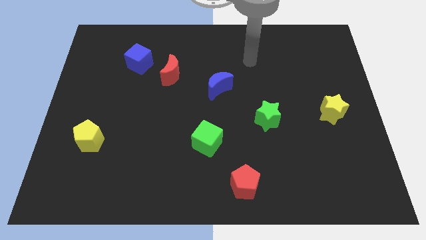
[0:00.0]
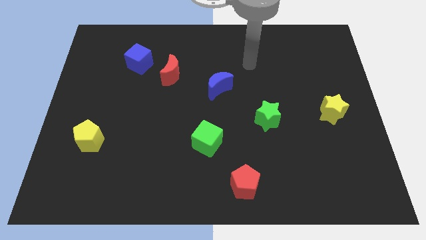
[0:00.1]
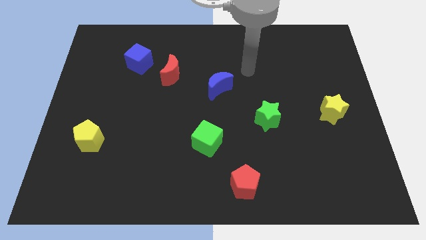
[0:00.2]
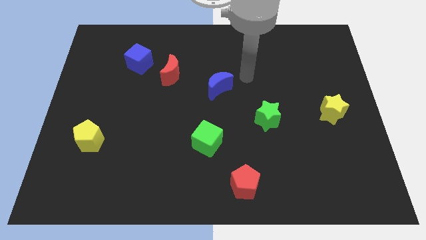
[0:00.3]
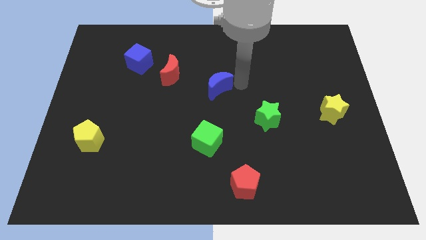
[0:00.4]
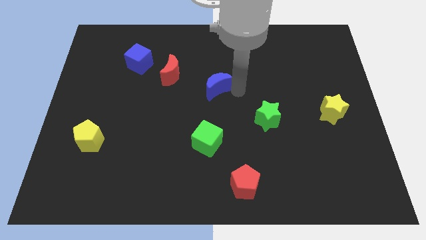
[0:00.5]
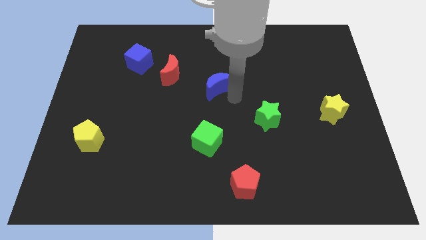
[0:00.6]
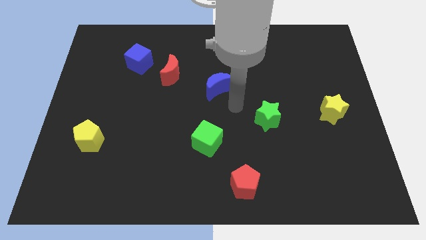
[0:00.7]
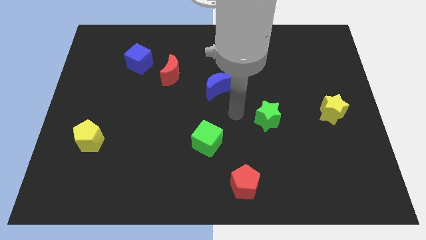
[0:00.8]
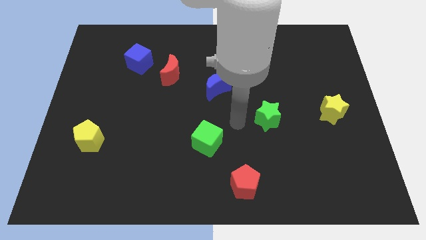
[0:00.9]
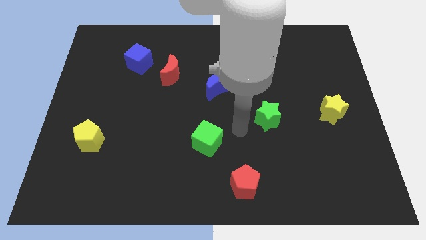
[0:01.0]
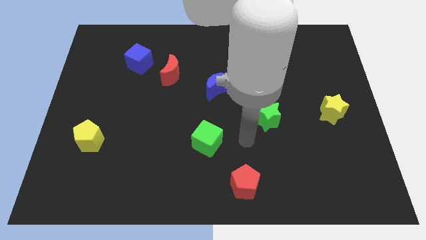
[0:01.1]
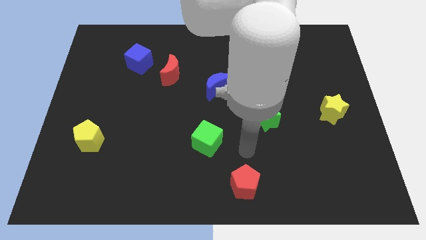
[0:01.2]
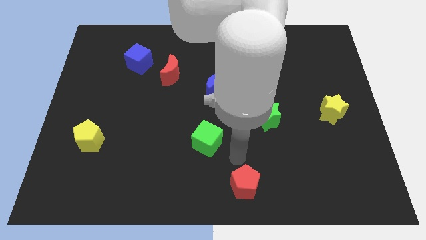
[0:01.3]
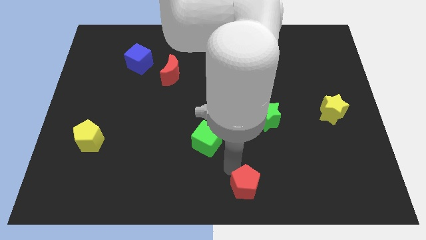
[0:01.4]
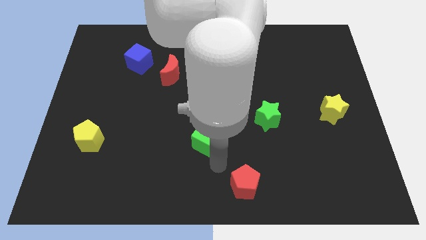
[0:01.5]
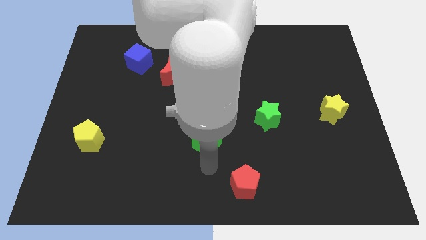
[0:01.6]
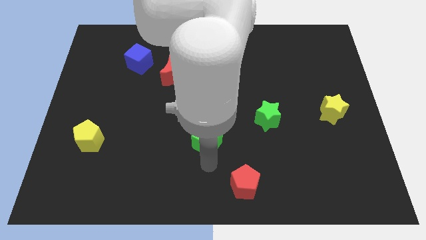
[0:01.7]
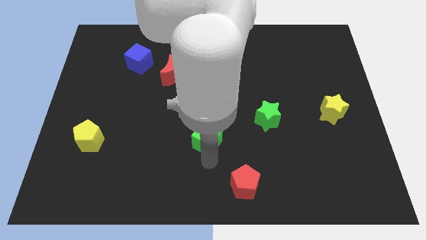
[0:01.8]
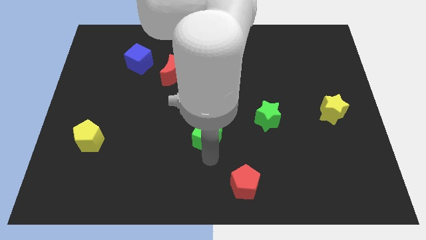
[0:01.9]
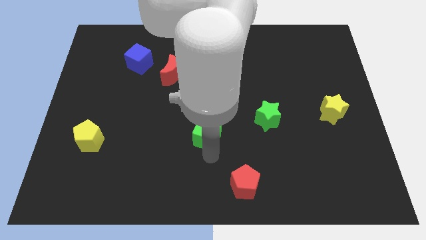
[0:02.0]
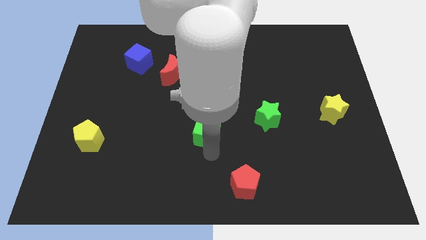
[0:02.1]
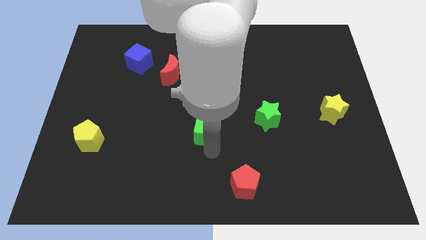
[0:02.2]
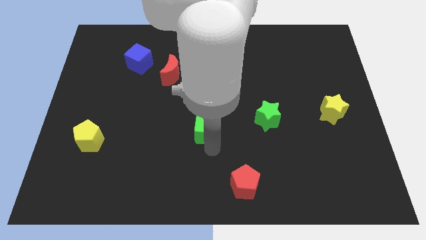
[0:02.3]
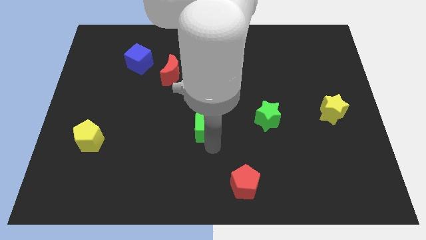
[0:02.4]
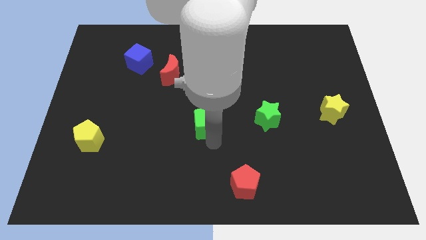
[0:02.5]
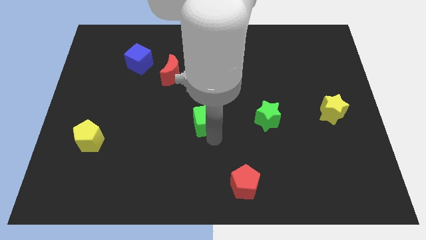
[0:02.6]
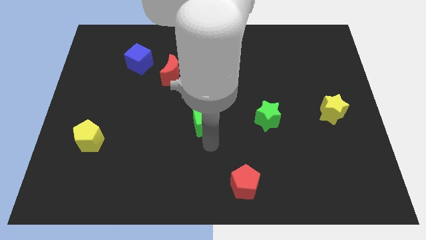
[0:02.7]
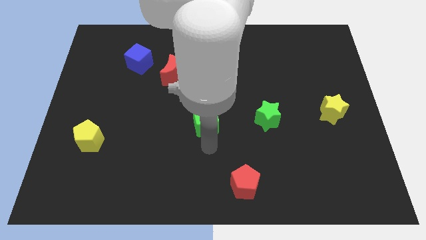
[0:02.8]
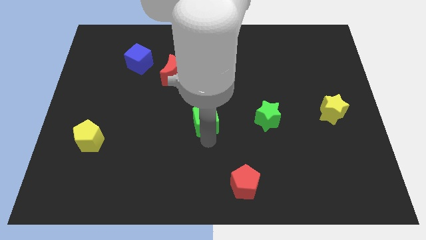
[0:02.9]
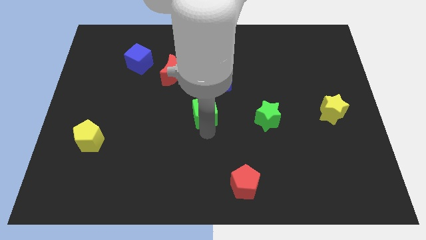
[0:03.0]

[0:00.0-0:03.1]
push the green cube up somewhat

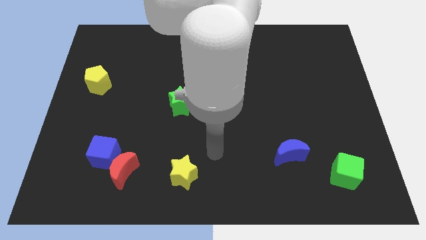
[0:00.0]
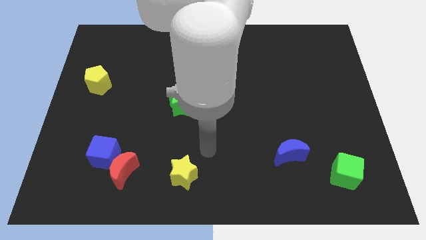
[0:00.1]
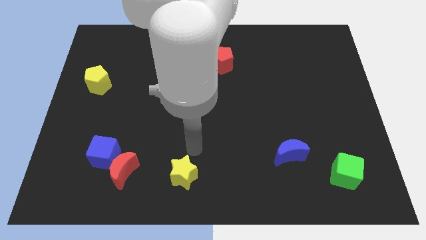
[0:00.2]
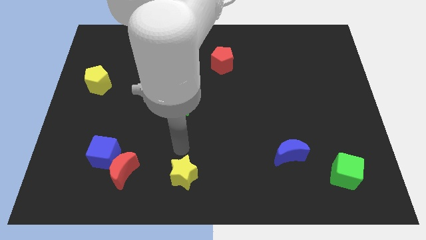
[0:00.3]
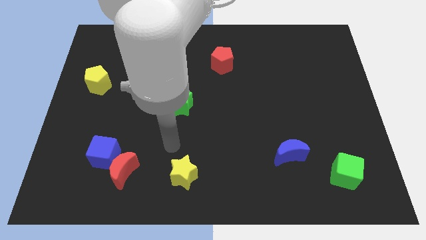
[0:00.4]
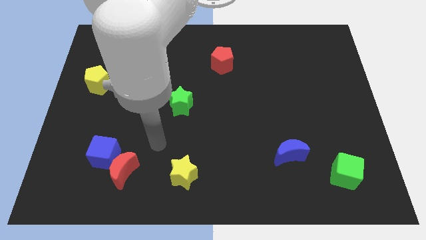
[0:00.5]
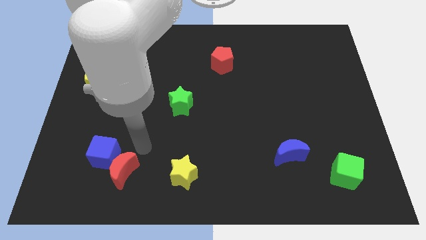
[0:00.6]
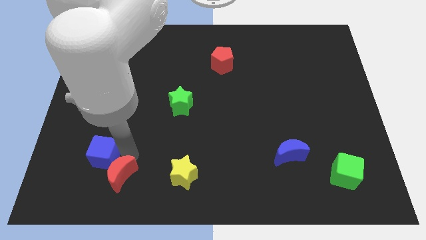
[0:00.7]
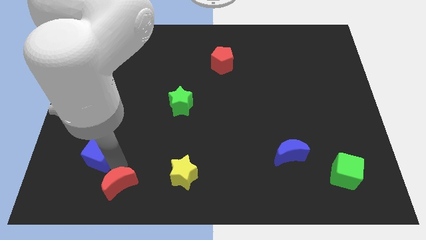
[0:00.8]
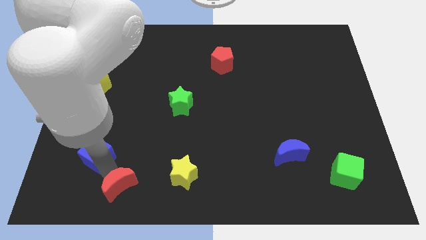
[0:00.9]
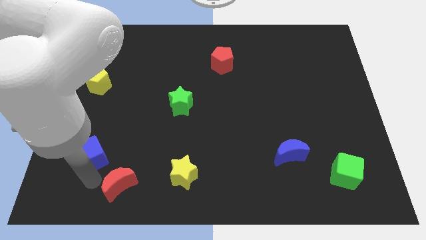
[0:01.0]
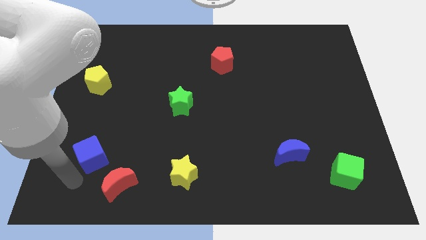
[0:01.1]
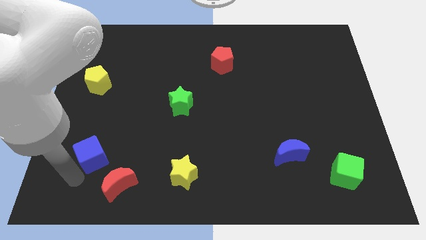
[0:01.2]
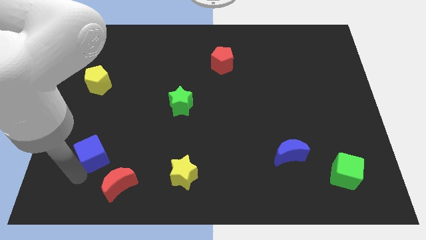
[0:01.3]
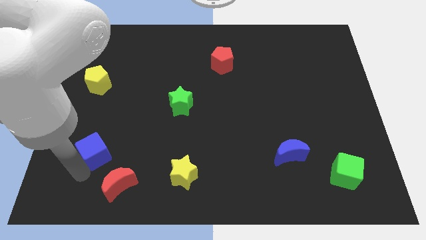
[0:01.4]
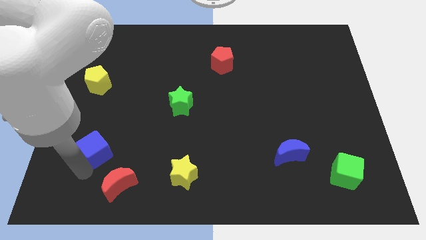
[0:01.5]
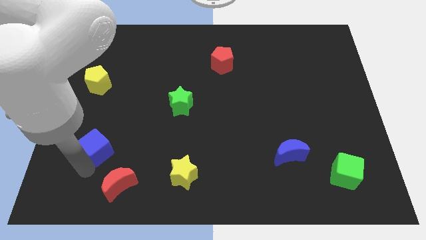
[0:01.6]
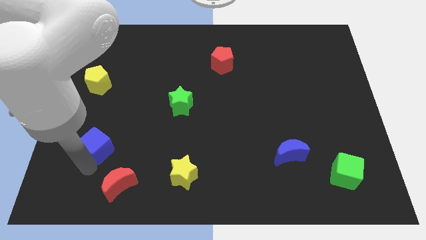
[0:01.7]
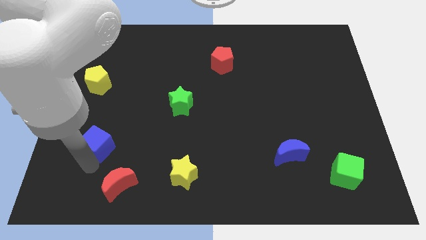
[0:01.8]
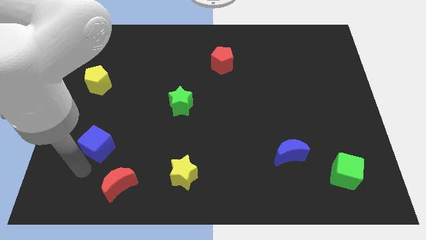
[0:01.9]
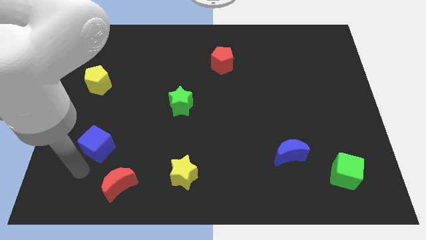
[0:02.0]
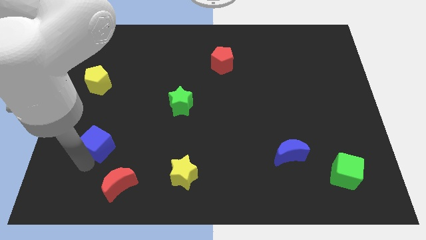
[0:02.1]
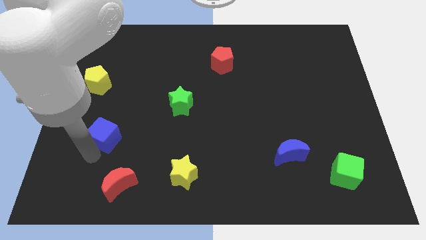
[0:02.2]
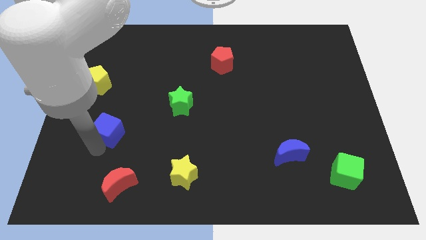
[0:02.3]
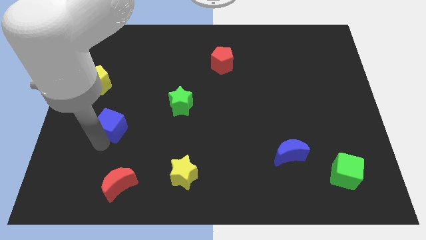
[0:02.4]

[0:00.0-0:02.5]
slide the blue cube upwards a little bit

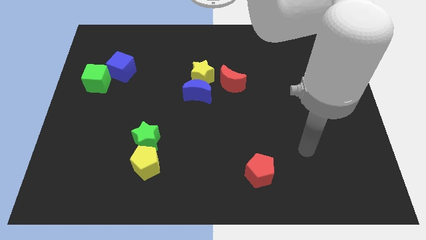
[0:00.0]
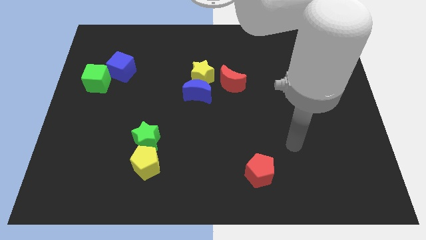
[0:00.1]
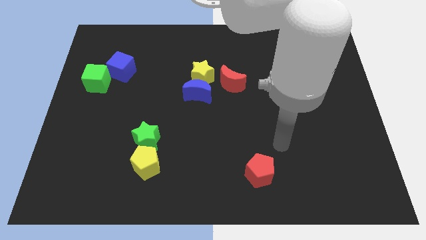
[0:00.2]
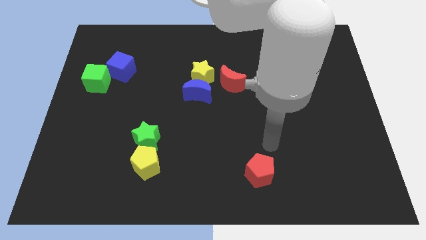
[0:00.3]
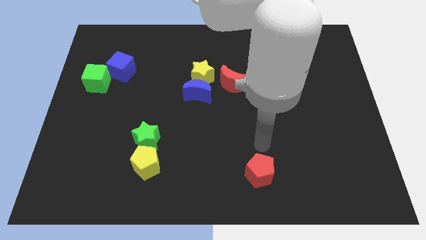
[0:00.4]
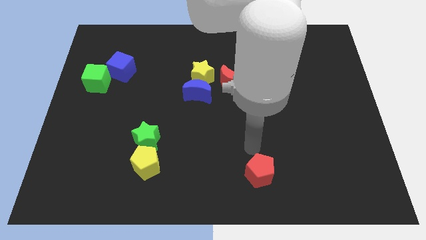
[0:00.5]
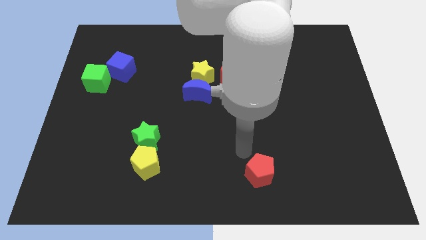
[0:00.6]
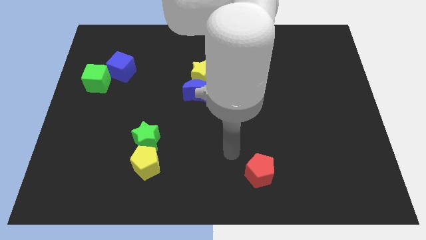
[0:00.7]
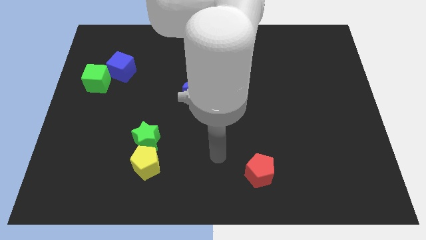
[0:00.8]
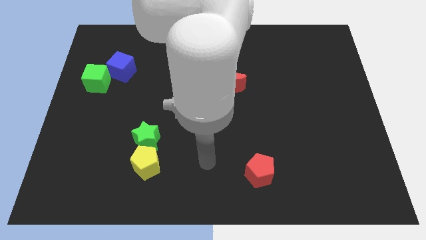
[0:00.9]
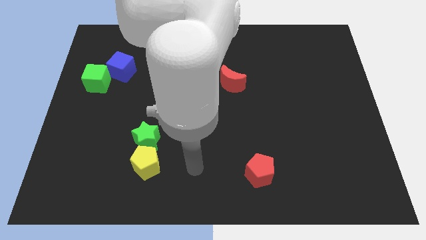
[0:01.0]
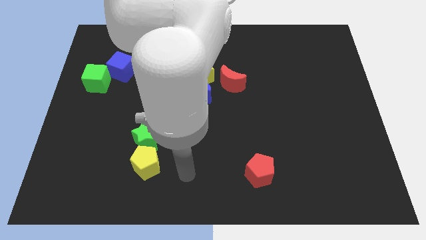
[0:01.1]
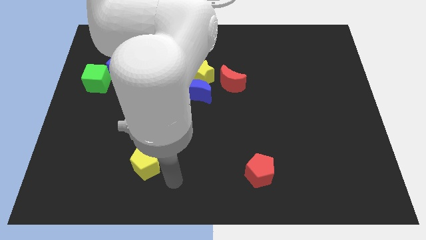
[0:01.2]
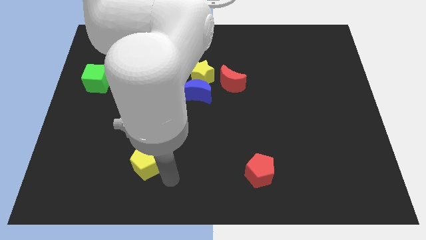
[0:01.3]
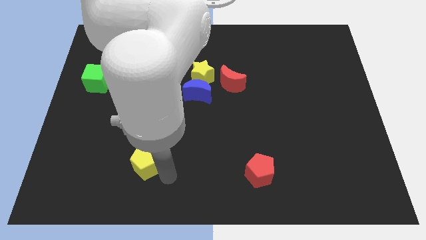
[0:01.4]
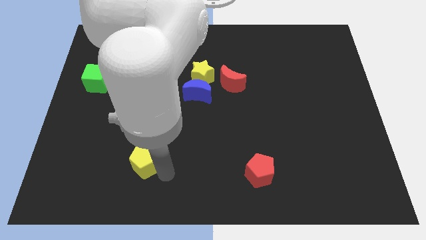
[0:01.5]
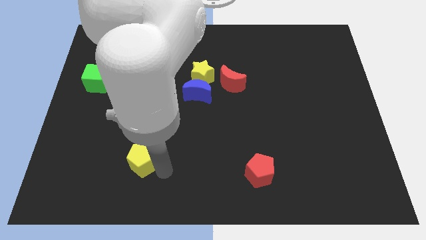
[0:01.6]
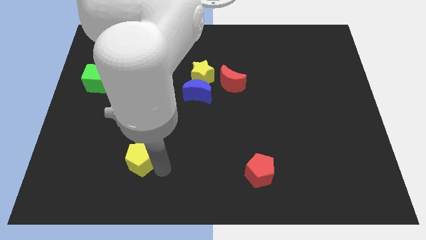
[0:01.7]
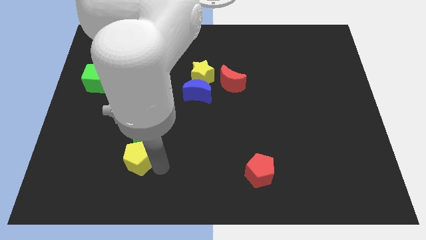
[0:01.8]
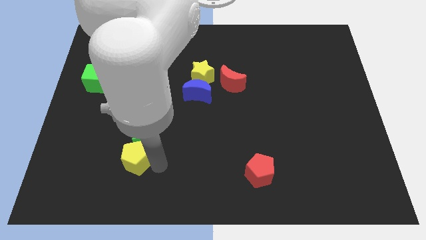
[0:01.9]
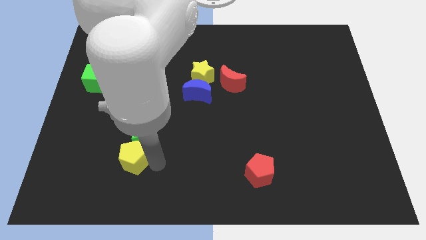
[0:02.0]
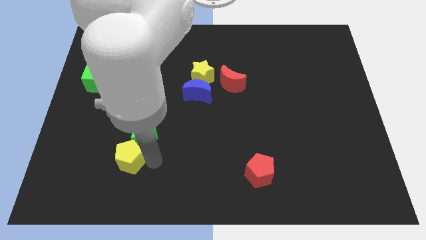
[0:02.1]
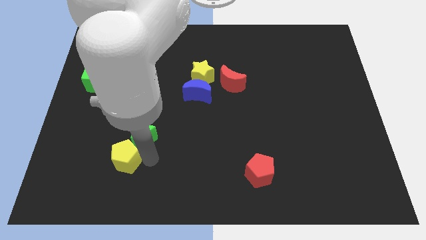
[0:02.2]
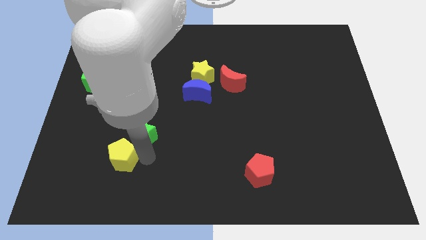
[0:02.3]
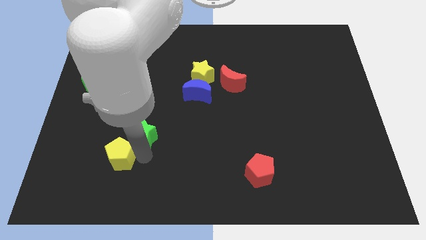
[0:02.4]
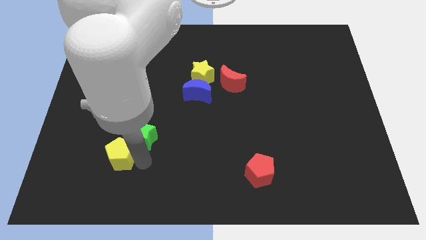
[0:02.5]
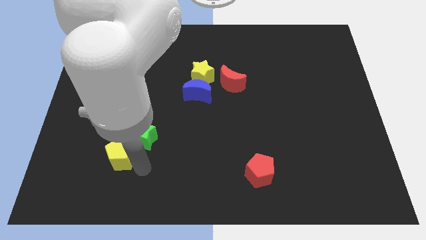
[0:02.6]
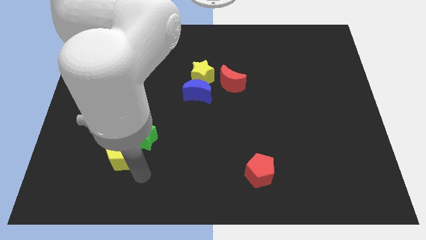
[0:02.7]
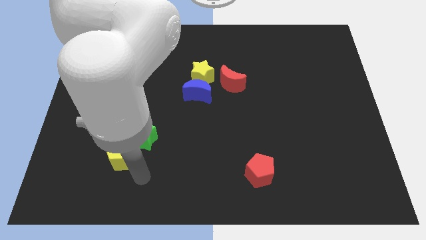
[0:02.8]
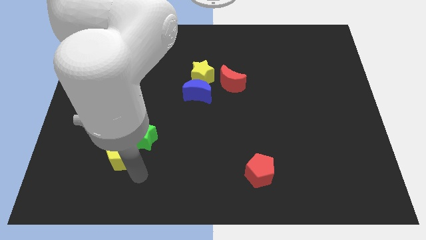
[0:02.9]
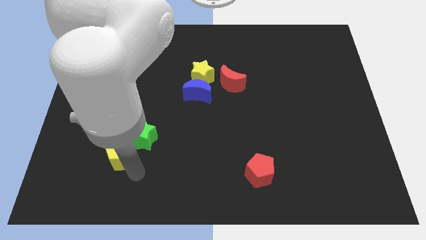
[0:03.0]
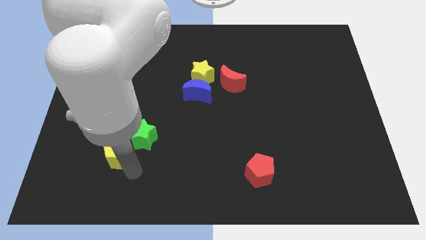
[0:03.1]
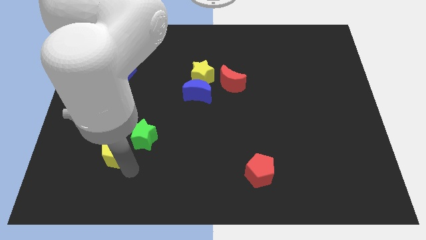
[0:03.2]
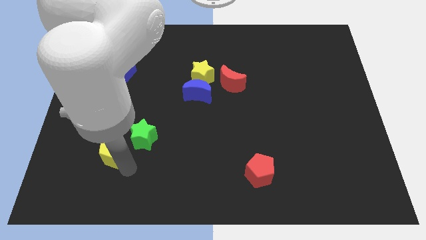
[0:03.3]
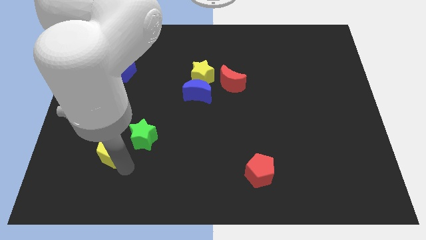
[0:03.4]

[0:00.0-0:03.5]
slightly move the yellow pentagon up and then to the left
